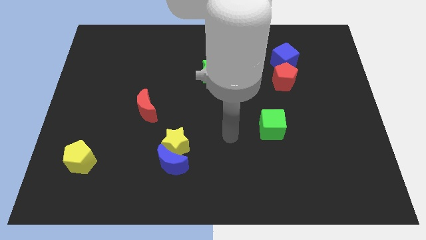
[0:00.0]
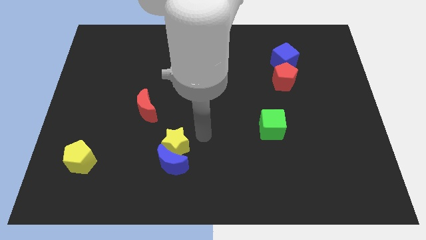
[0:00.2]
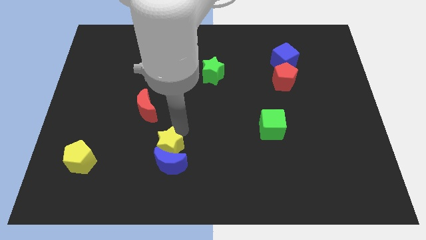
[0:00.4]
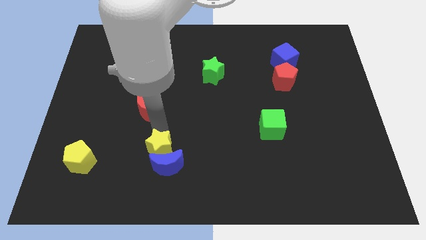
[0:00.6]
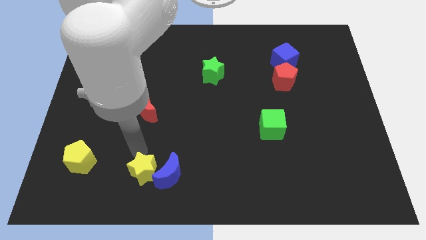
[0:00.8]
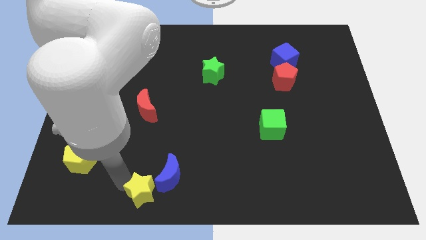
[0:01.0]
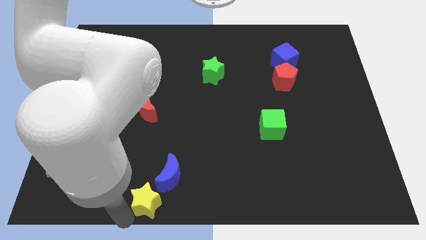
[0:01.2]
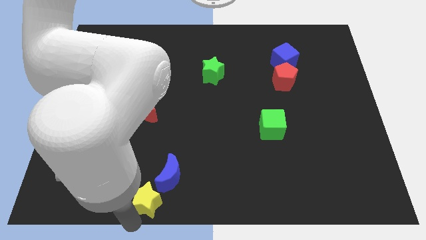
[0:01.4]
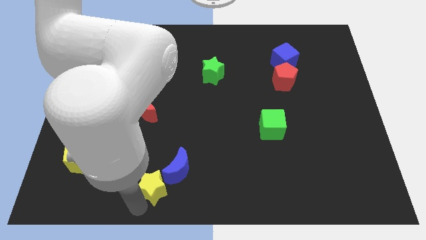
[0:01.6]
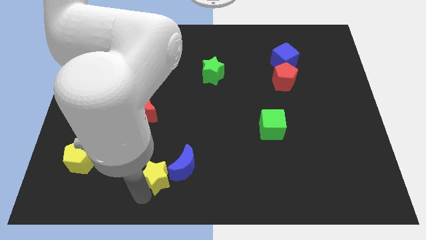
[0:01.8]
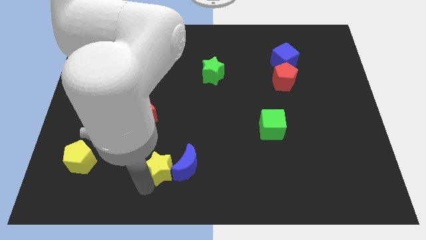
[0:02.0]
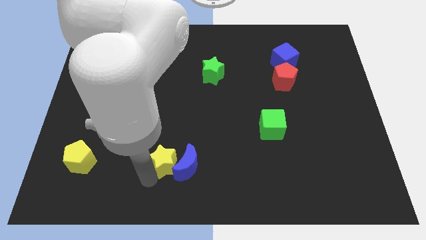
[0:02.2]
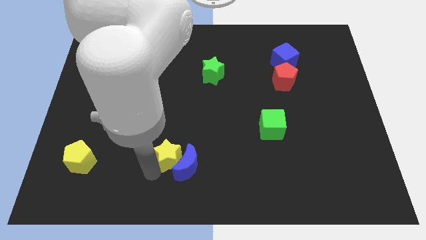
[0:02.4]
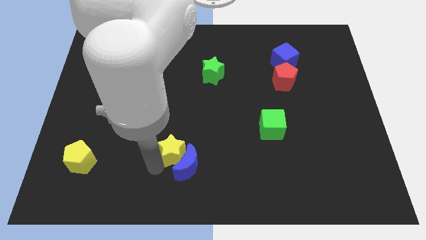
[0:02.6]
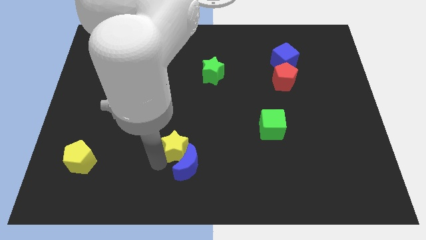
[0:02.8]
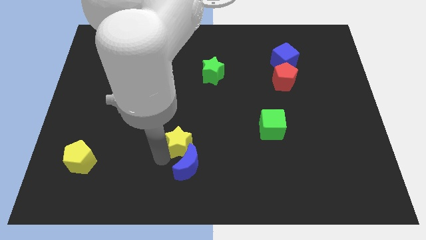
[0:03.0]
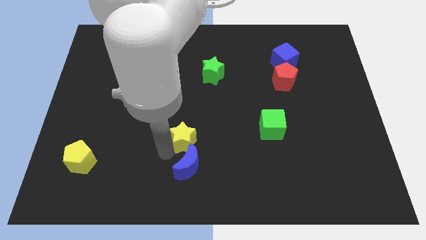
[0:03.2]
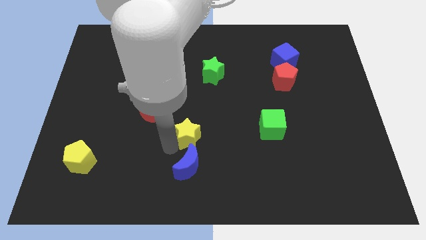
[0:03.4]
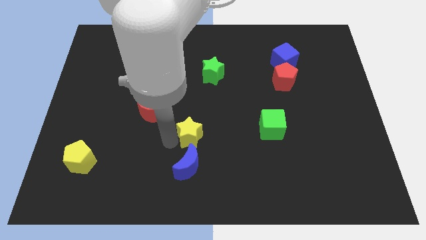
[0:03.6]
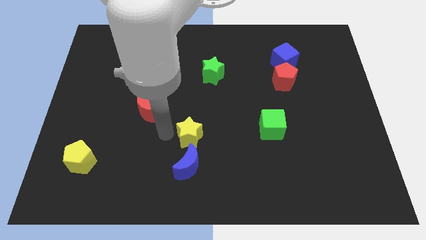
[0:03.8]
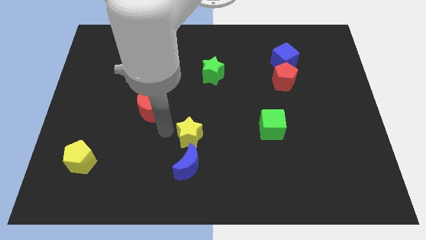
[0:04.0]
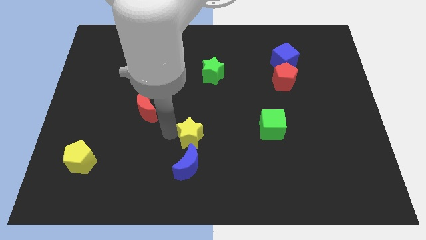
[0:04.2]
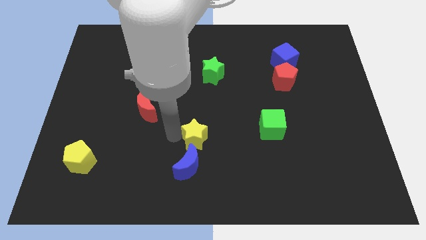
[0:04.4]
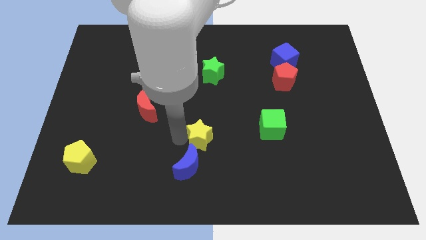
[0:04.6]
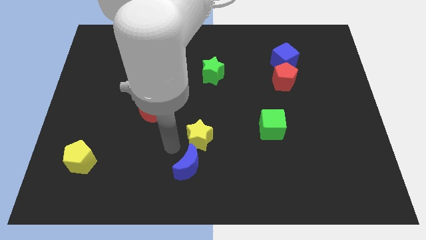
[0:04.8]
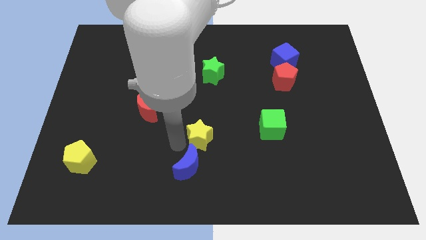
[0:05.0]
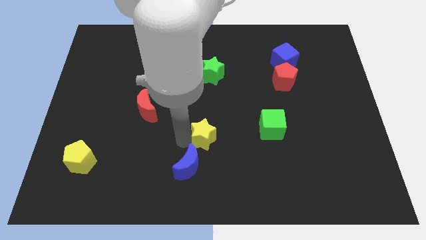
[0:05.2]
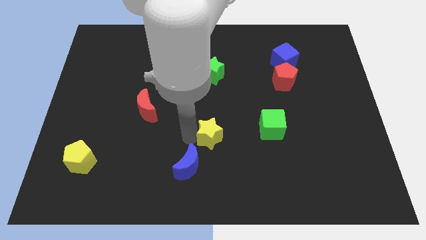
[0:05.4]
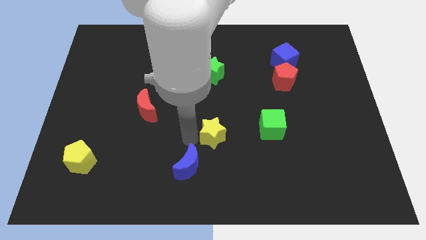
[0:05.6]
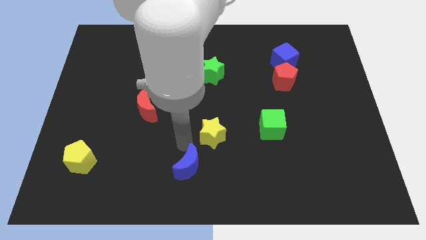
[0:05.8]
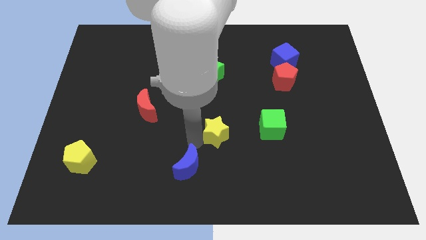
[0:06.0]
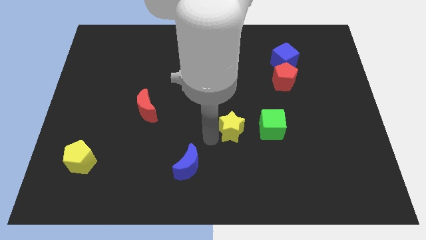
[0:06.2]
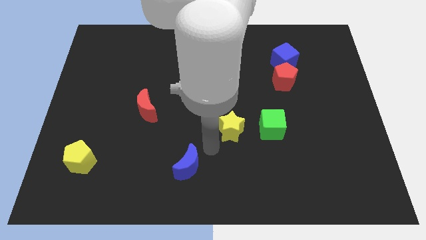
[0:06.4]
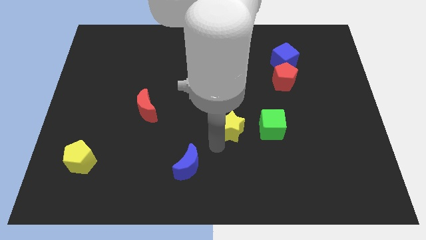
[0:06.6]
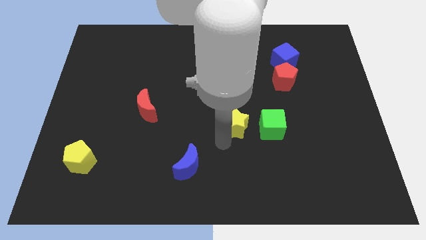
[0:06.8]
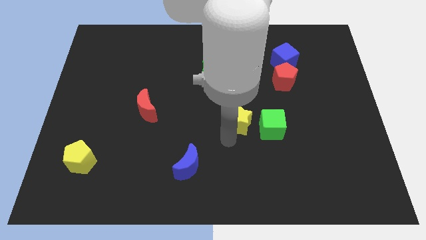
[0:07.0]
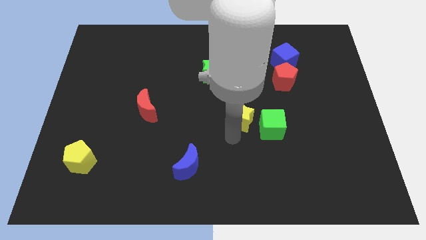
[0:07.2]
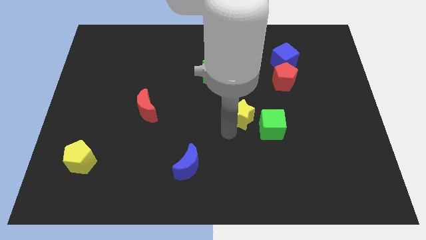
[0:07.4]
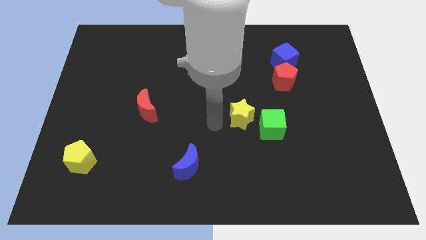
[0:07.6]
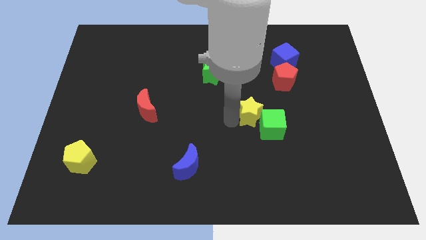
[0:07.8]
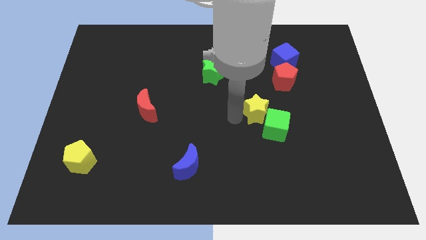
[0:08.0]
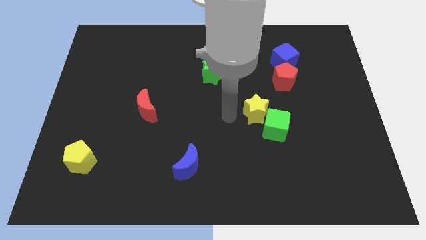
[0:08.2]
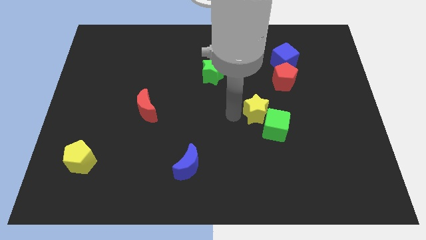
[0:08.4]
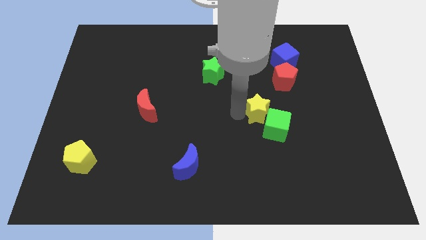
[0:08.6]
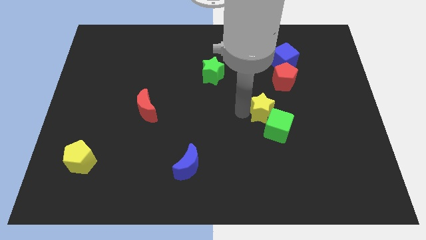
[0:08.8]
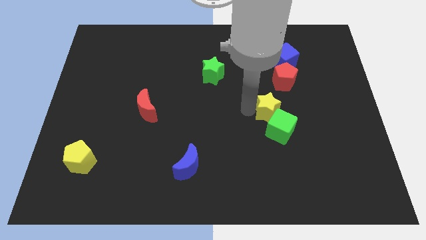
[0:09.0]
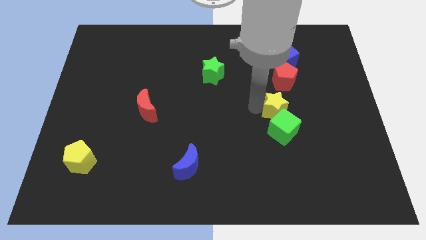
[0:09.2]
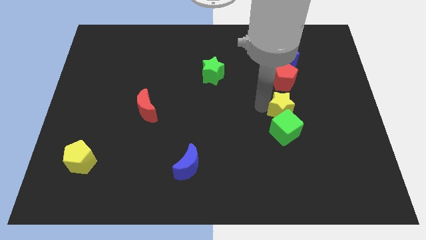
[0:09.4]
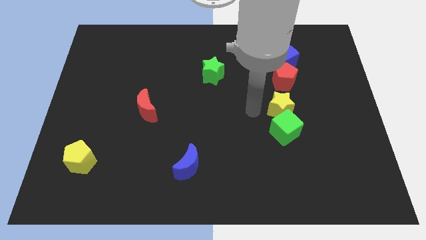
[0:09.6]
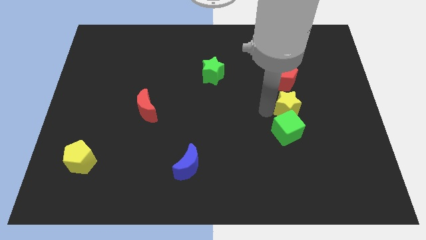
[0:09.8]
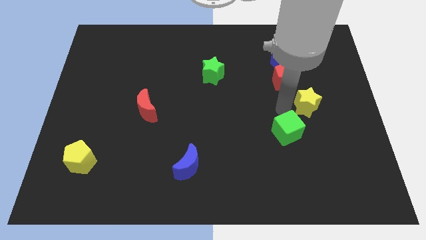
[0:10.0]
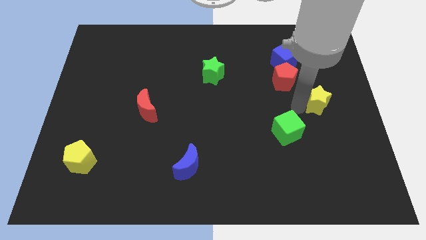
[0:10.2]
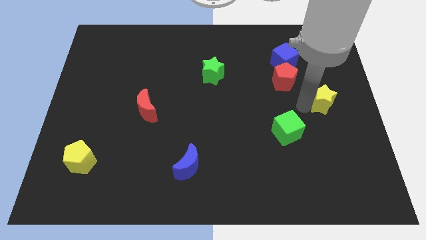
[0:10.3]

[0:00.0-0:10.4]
push the yellow star to the right side of the board

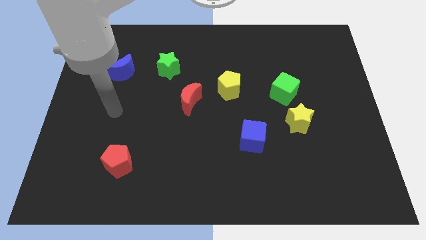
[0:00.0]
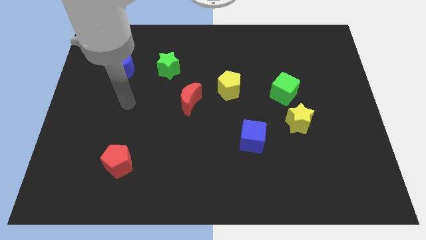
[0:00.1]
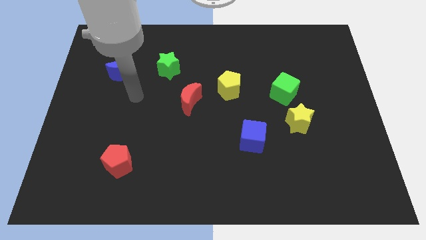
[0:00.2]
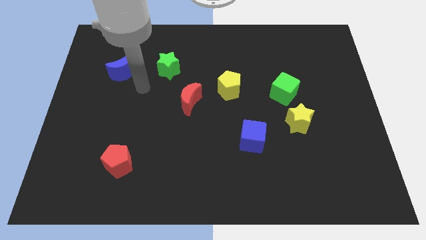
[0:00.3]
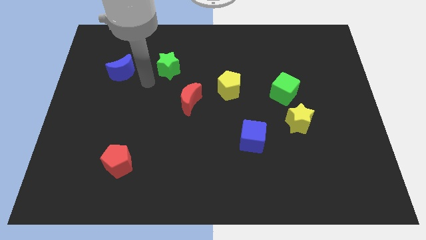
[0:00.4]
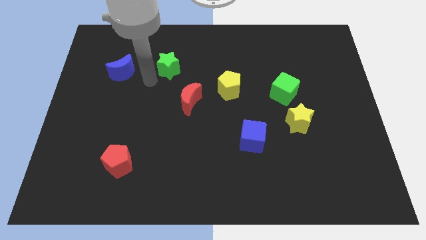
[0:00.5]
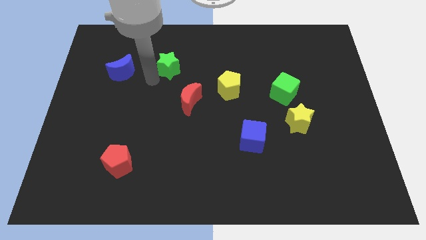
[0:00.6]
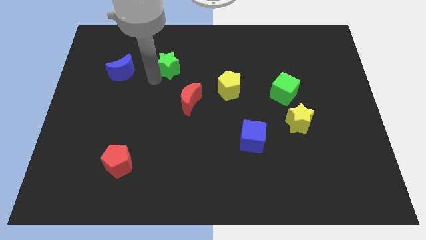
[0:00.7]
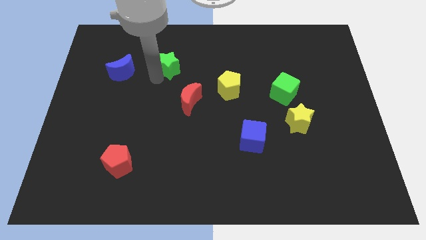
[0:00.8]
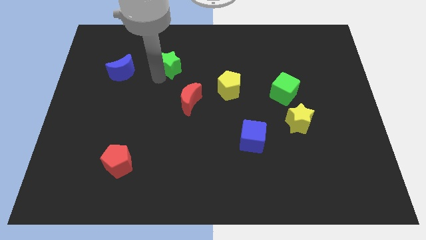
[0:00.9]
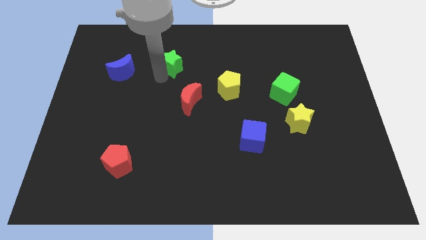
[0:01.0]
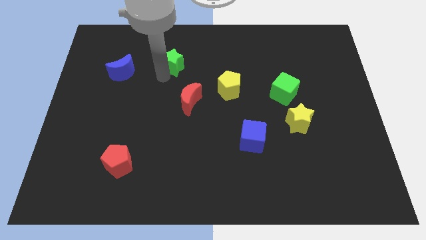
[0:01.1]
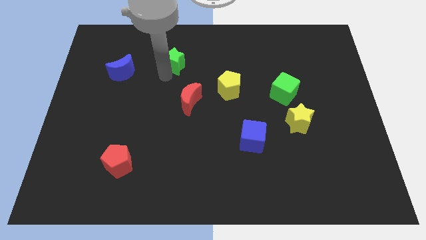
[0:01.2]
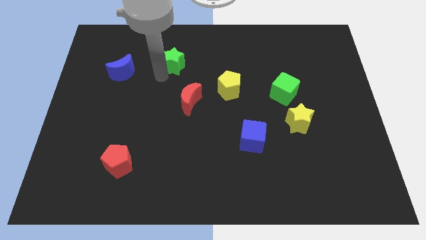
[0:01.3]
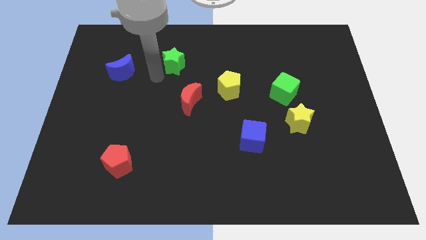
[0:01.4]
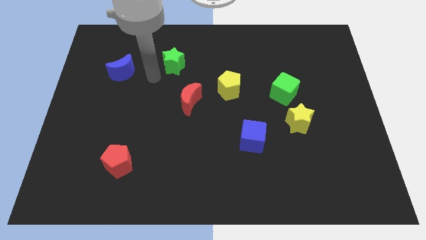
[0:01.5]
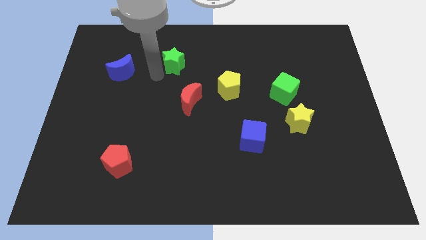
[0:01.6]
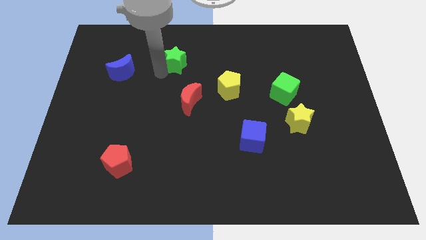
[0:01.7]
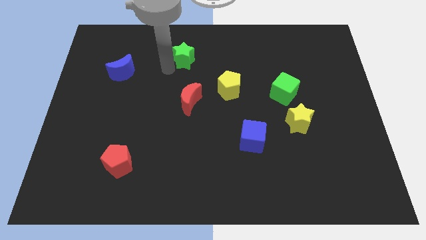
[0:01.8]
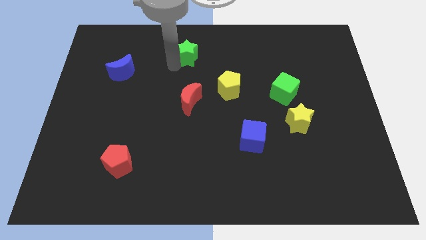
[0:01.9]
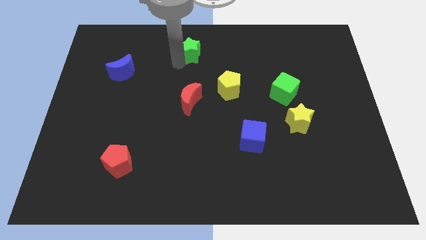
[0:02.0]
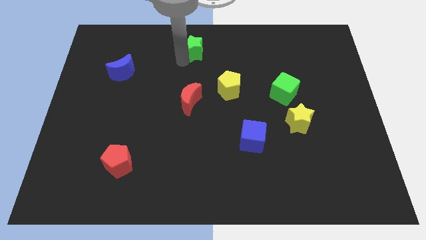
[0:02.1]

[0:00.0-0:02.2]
push the green star to the towards your base
